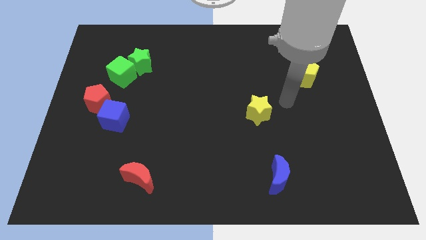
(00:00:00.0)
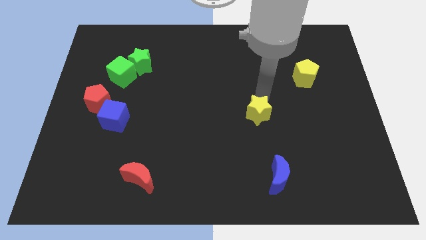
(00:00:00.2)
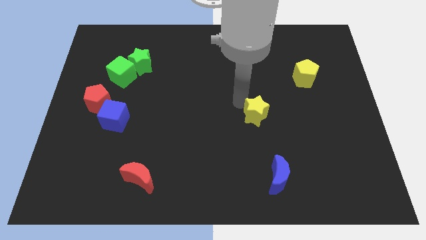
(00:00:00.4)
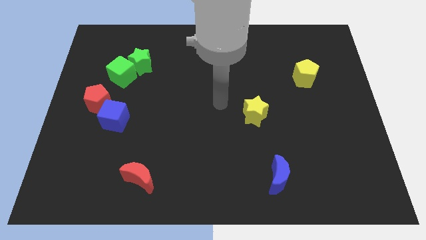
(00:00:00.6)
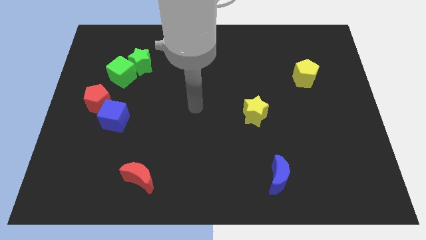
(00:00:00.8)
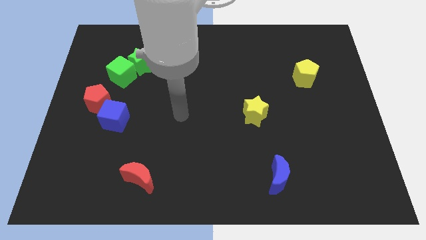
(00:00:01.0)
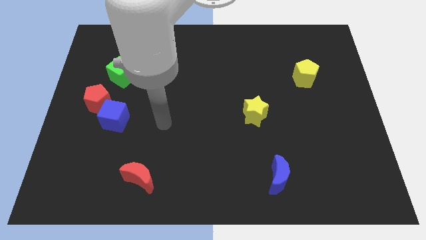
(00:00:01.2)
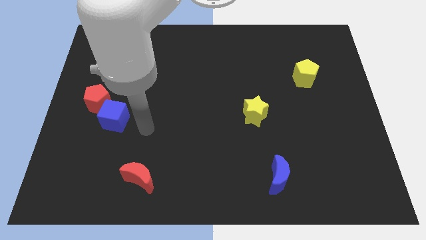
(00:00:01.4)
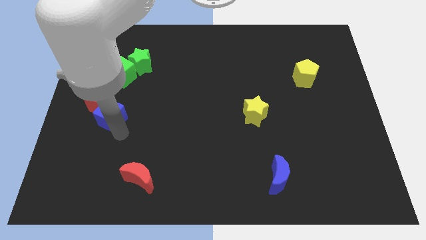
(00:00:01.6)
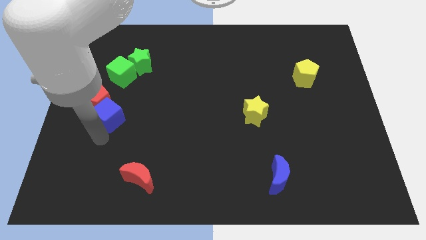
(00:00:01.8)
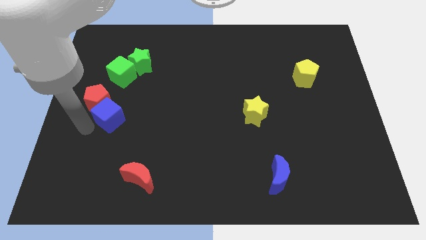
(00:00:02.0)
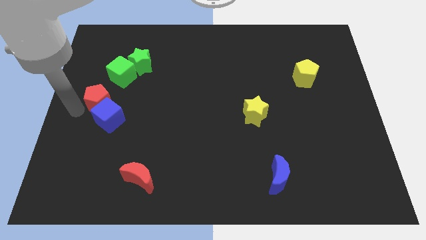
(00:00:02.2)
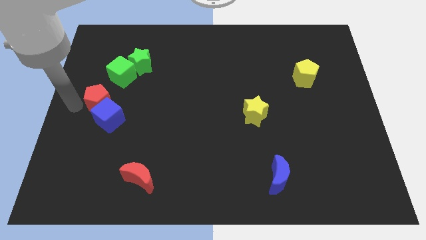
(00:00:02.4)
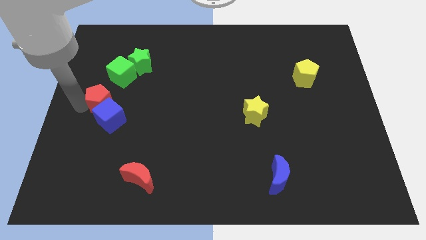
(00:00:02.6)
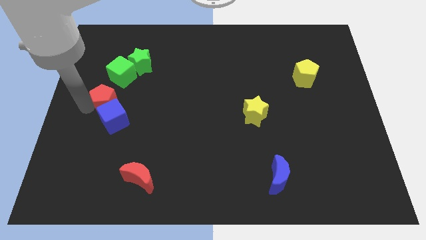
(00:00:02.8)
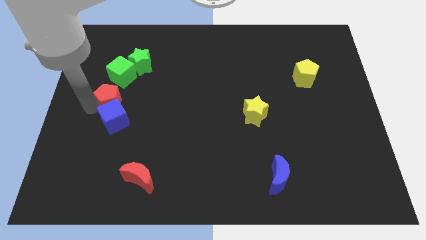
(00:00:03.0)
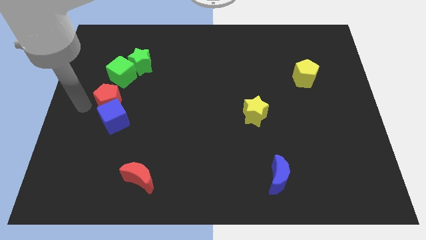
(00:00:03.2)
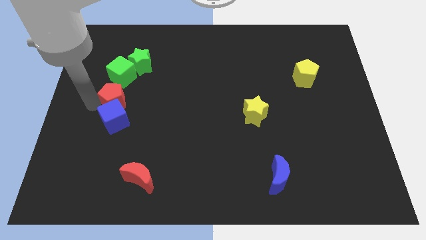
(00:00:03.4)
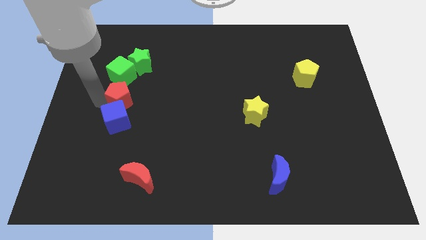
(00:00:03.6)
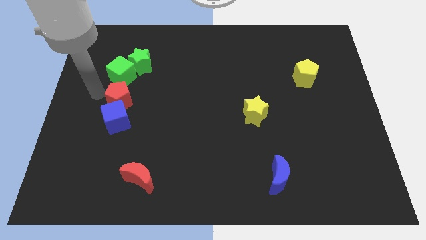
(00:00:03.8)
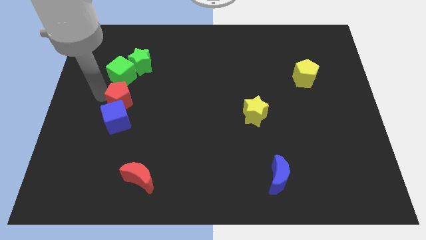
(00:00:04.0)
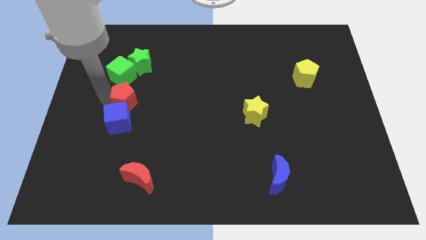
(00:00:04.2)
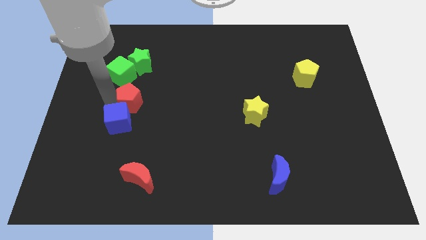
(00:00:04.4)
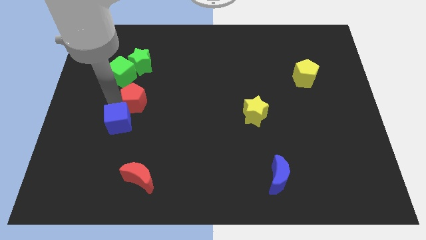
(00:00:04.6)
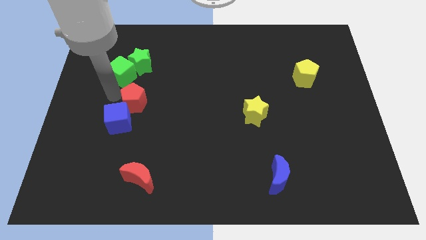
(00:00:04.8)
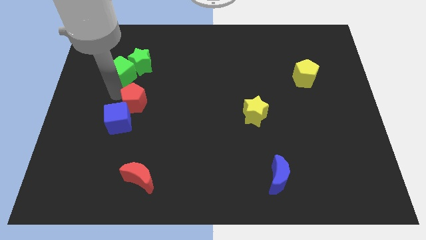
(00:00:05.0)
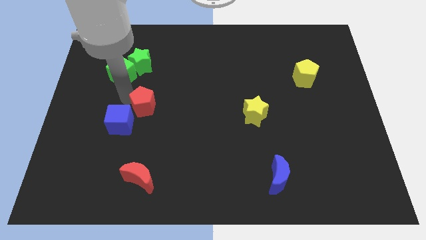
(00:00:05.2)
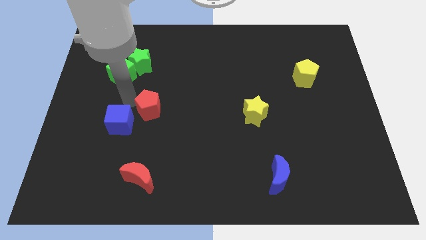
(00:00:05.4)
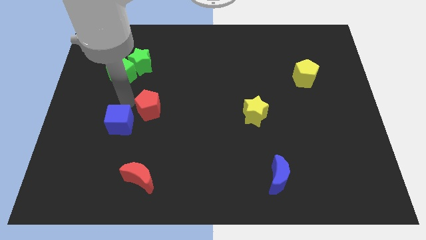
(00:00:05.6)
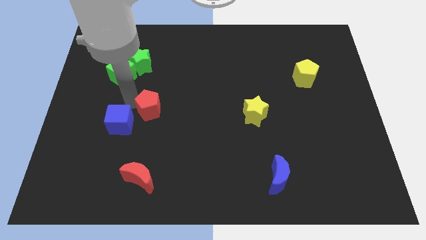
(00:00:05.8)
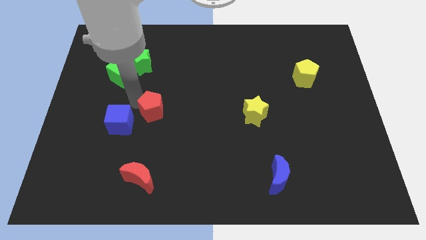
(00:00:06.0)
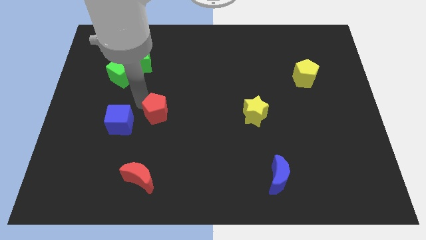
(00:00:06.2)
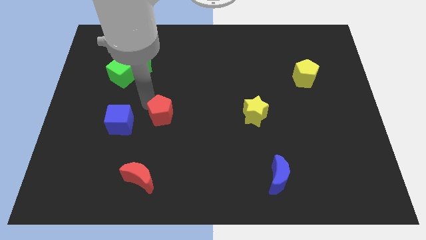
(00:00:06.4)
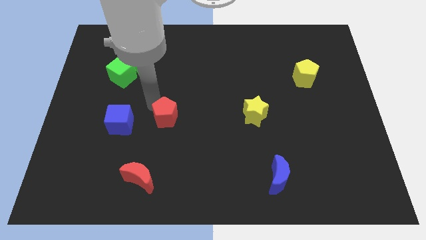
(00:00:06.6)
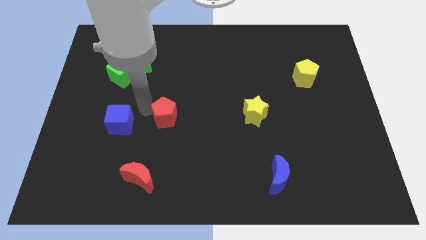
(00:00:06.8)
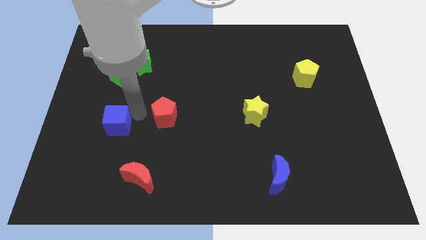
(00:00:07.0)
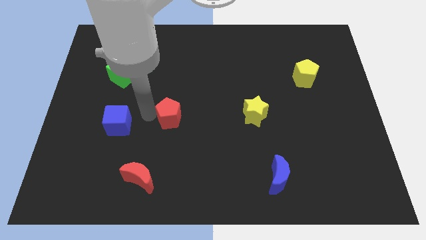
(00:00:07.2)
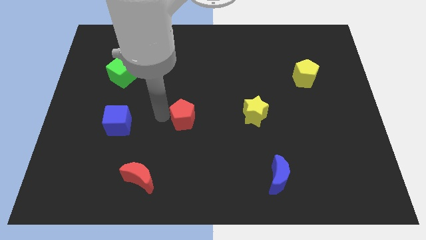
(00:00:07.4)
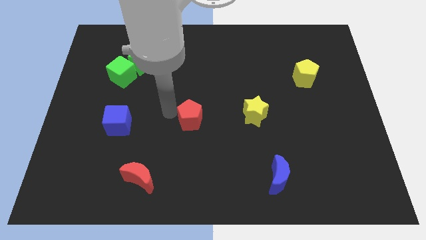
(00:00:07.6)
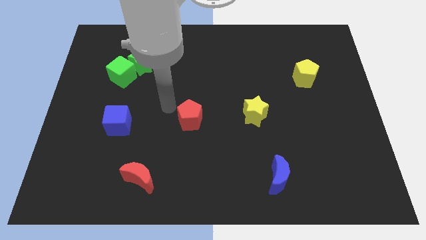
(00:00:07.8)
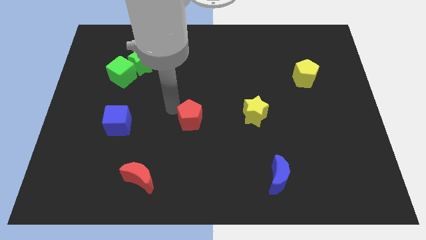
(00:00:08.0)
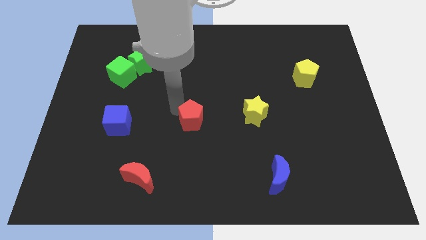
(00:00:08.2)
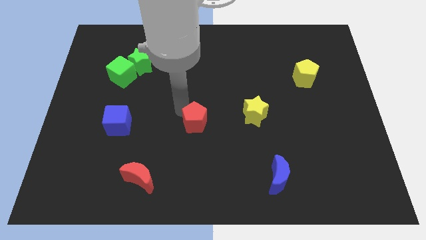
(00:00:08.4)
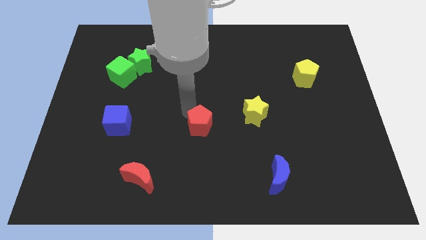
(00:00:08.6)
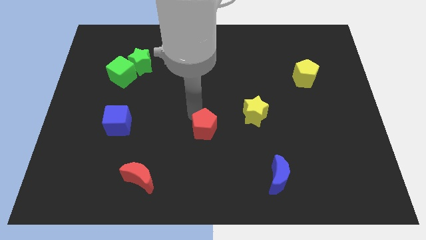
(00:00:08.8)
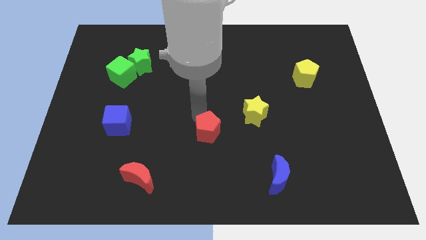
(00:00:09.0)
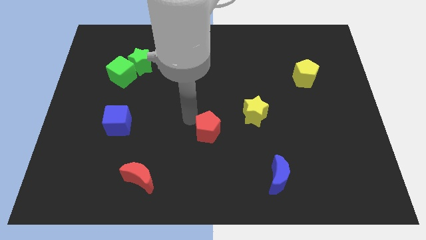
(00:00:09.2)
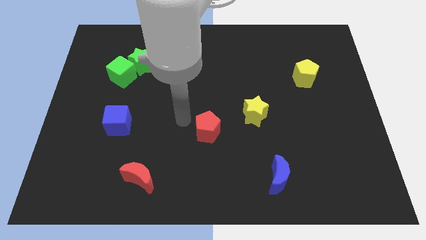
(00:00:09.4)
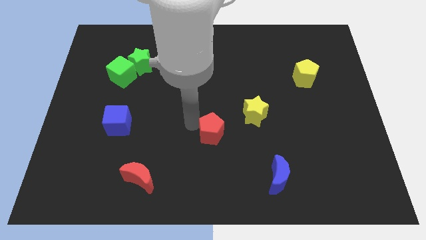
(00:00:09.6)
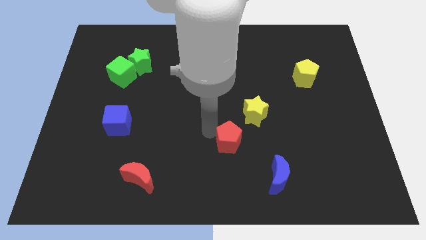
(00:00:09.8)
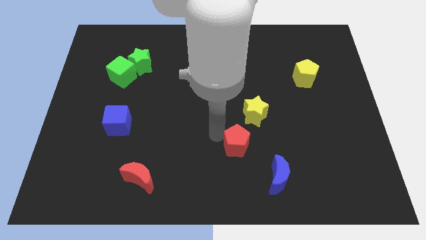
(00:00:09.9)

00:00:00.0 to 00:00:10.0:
slide the red pentagon to the bottom side of the yellow star

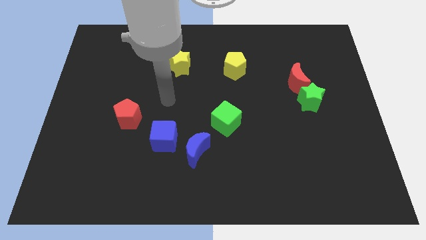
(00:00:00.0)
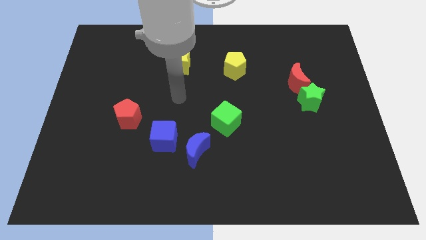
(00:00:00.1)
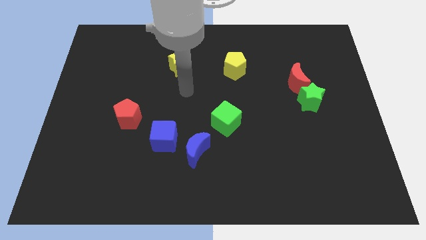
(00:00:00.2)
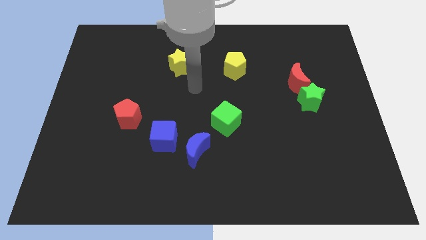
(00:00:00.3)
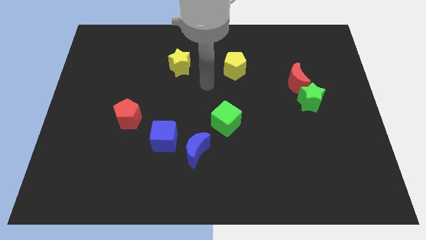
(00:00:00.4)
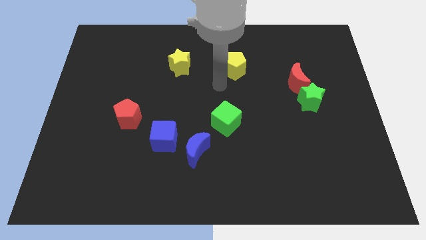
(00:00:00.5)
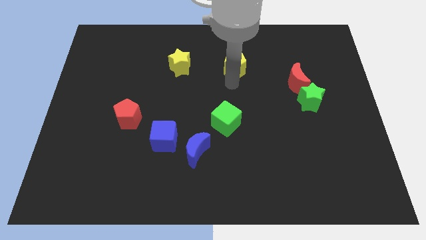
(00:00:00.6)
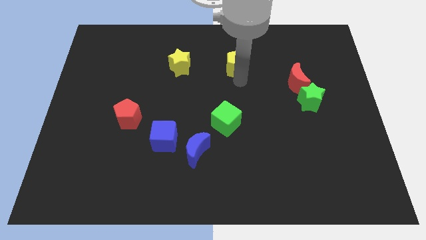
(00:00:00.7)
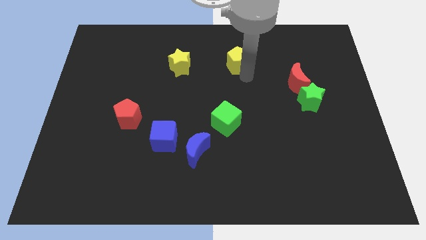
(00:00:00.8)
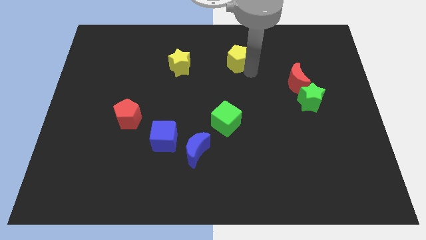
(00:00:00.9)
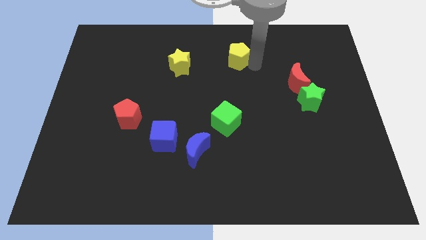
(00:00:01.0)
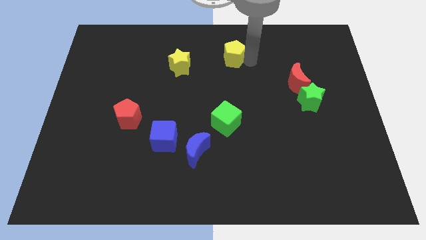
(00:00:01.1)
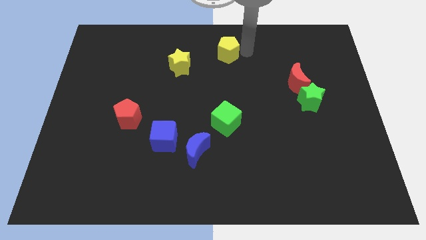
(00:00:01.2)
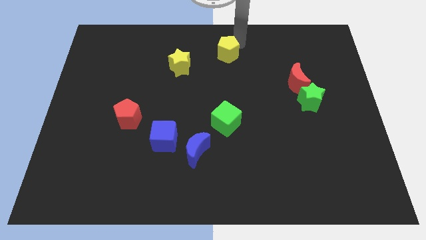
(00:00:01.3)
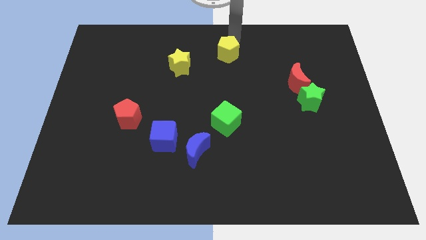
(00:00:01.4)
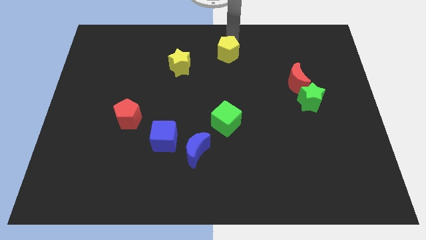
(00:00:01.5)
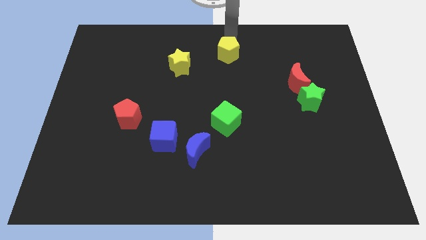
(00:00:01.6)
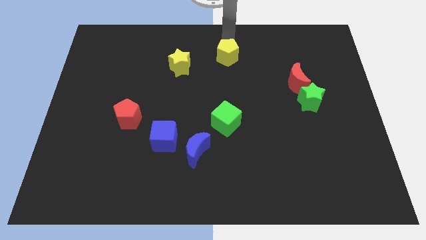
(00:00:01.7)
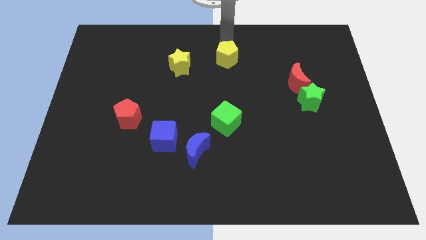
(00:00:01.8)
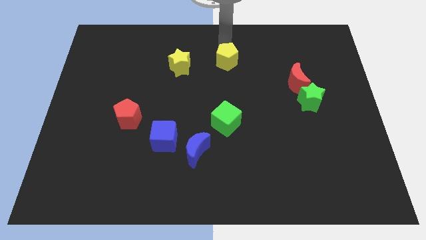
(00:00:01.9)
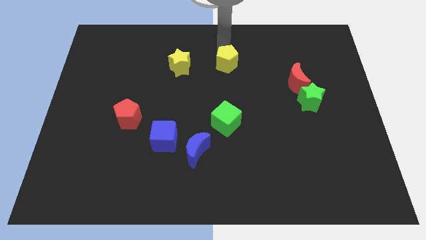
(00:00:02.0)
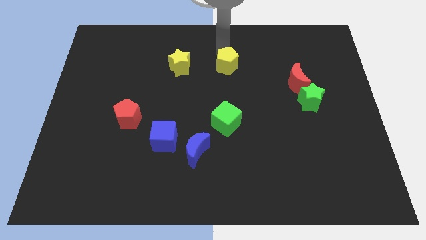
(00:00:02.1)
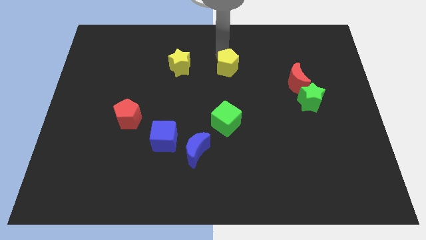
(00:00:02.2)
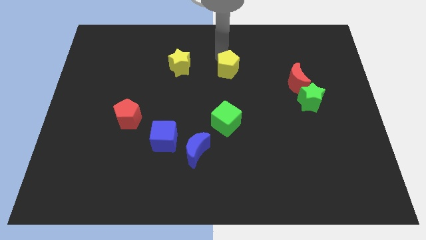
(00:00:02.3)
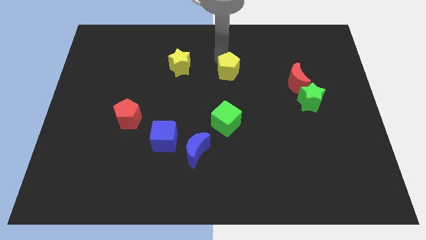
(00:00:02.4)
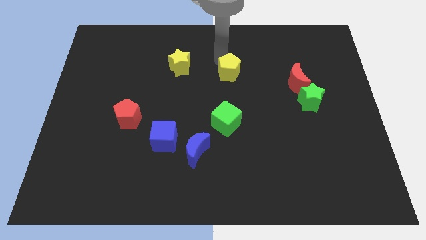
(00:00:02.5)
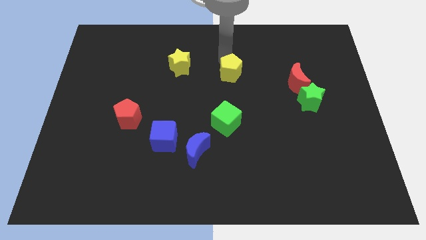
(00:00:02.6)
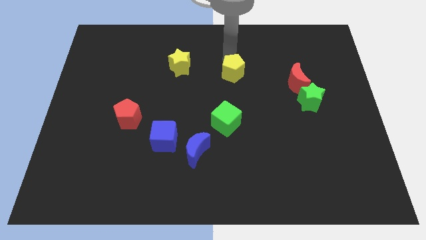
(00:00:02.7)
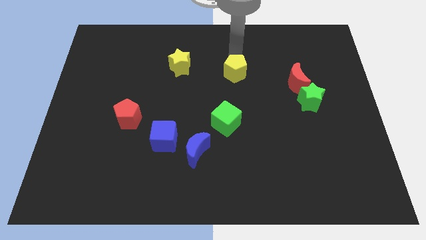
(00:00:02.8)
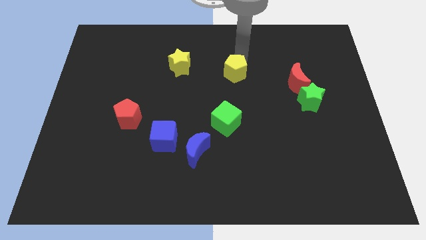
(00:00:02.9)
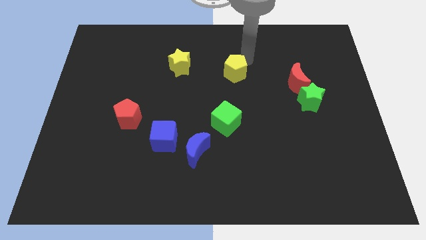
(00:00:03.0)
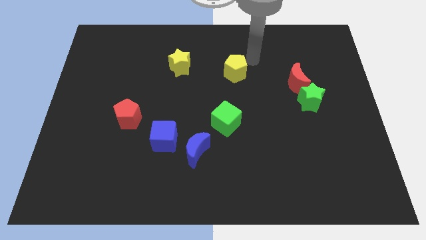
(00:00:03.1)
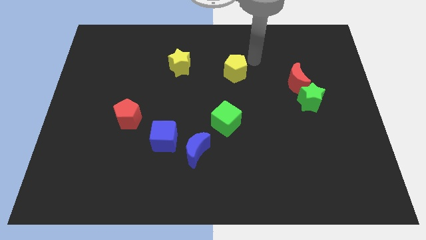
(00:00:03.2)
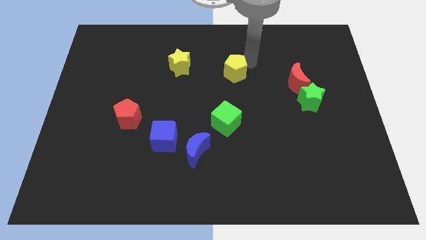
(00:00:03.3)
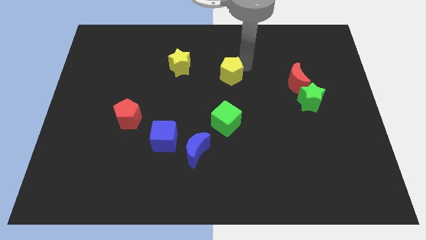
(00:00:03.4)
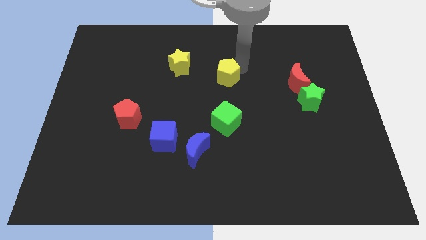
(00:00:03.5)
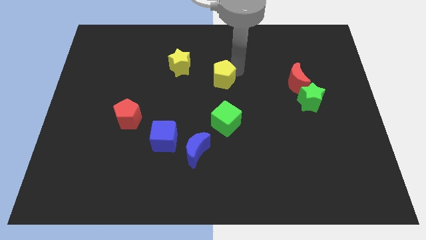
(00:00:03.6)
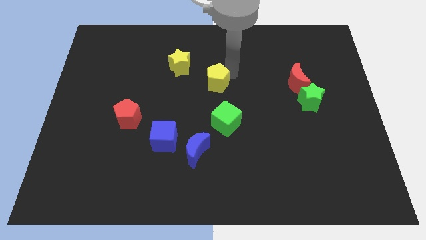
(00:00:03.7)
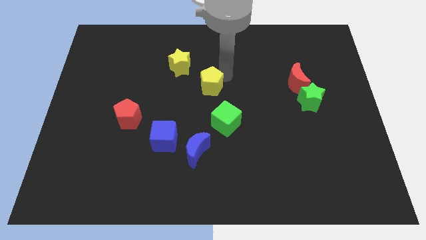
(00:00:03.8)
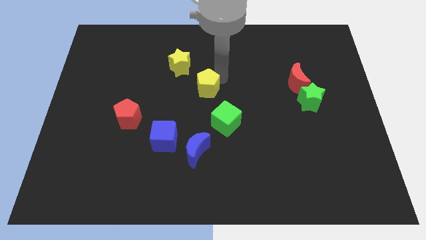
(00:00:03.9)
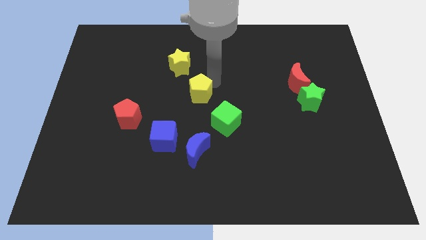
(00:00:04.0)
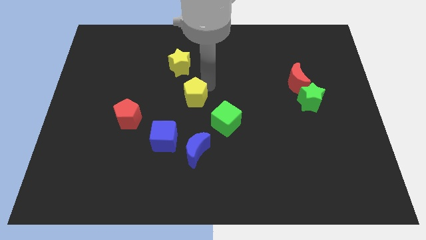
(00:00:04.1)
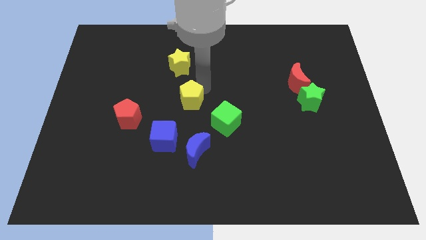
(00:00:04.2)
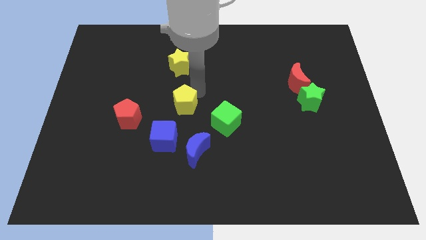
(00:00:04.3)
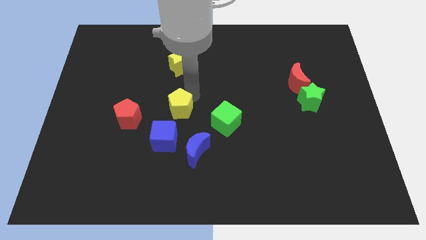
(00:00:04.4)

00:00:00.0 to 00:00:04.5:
push the yellow pentagon to the left of the green cube
